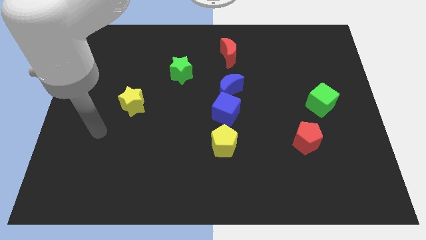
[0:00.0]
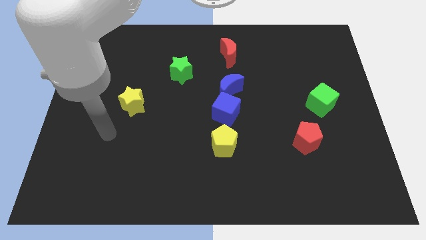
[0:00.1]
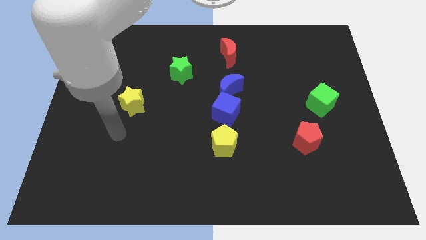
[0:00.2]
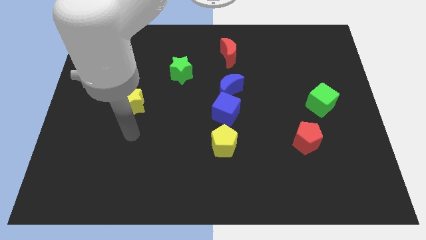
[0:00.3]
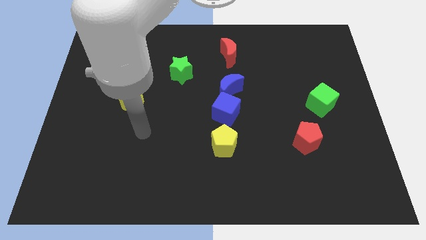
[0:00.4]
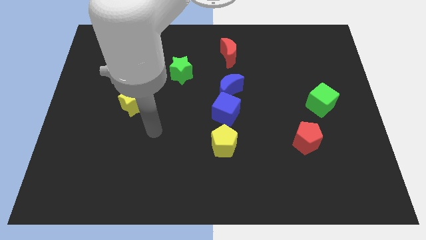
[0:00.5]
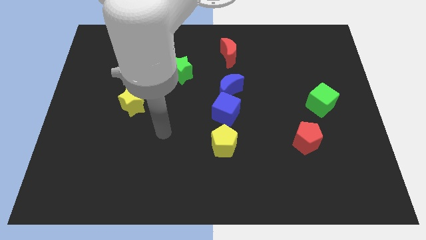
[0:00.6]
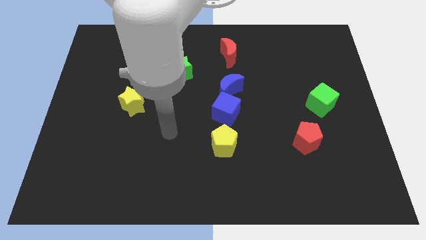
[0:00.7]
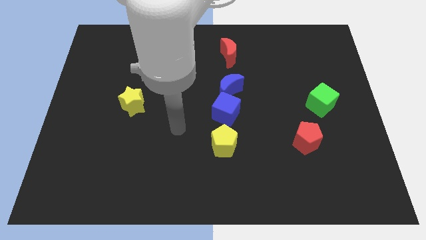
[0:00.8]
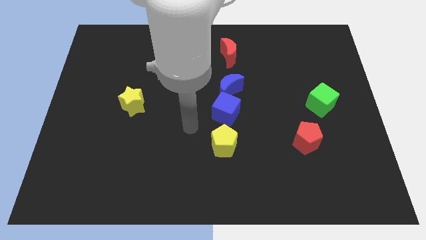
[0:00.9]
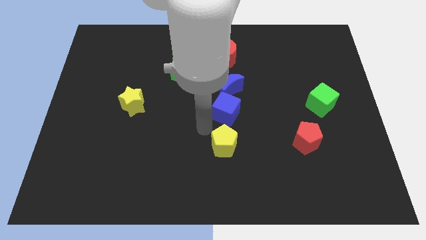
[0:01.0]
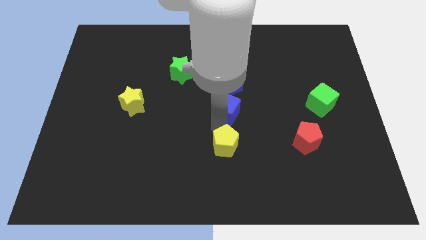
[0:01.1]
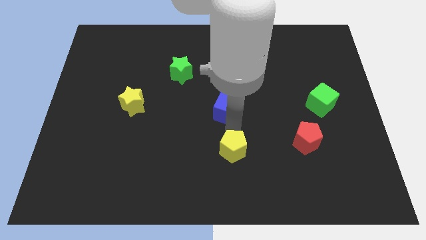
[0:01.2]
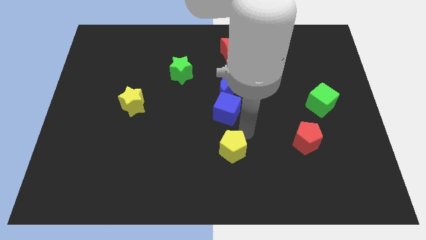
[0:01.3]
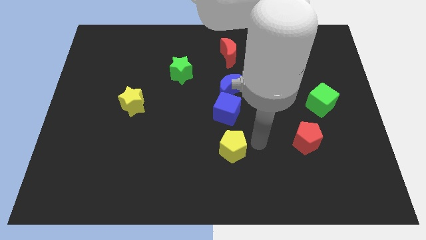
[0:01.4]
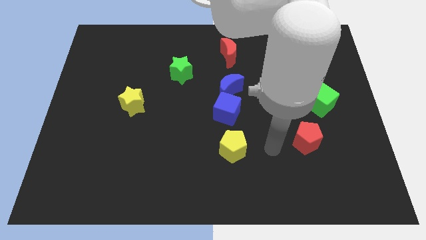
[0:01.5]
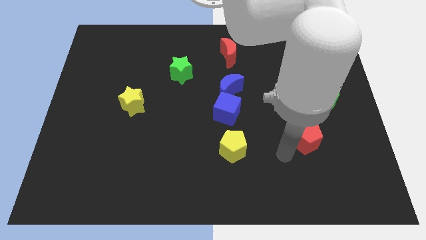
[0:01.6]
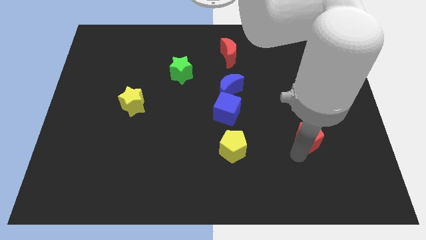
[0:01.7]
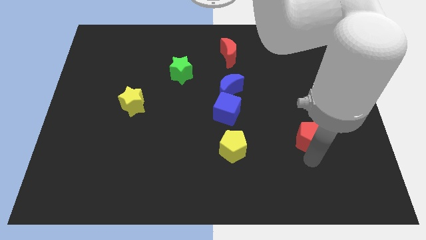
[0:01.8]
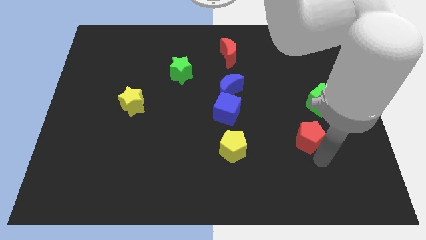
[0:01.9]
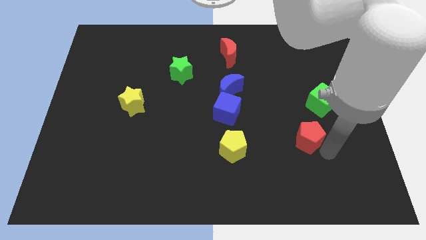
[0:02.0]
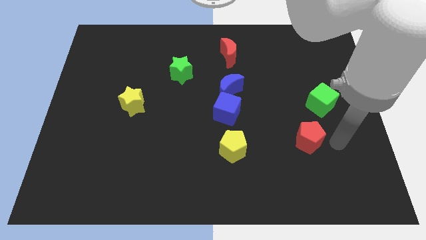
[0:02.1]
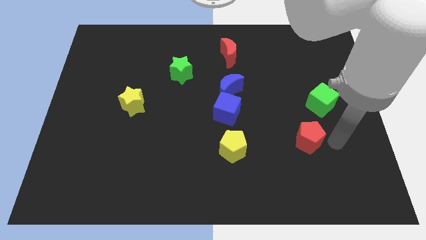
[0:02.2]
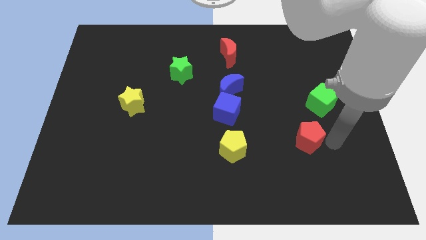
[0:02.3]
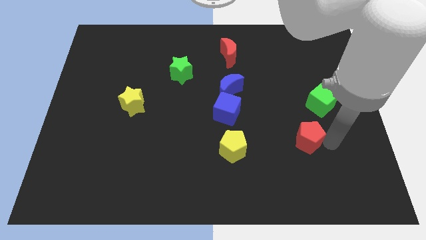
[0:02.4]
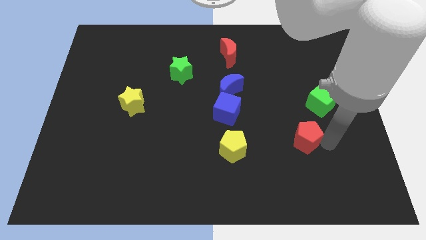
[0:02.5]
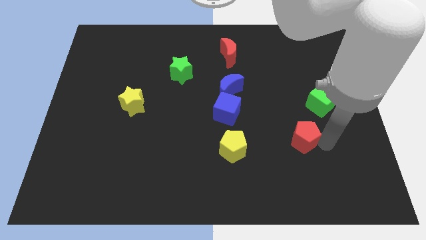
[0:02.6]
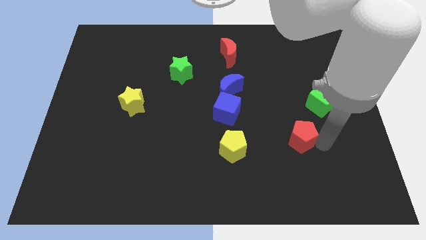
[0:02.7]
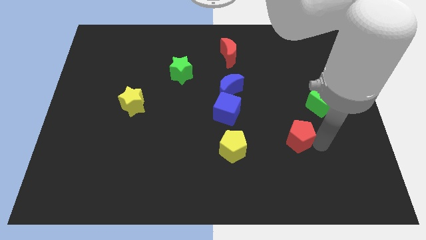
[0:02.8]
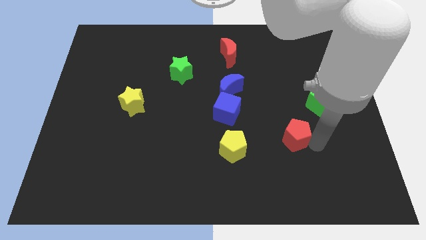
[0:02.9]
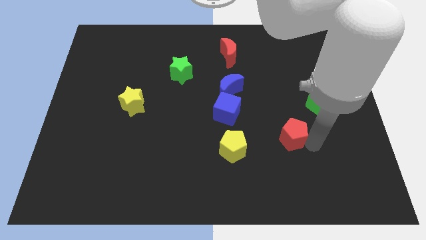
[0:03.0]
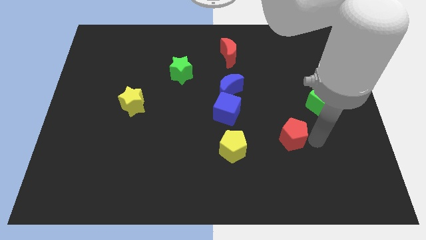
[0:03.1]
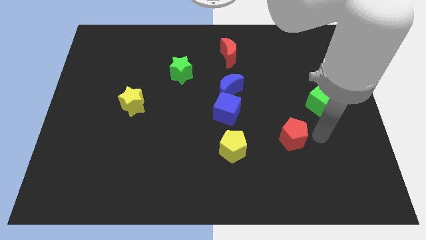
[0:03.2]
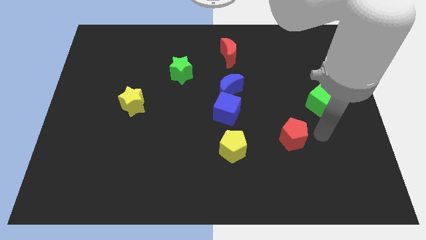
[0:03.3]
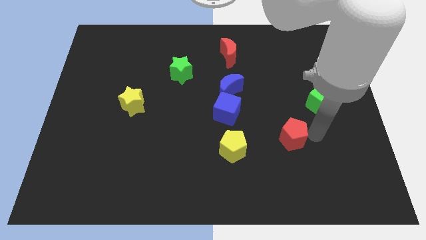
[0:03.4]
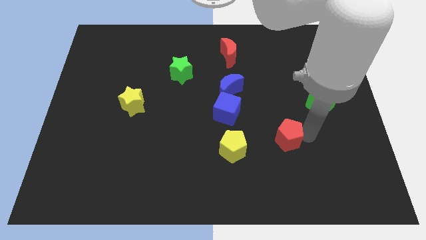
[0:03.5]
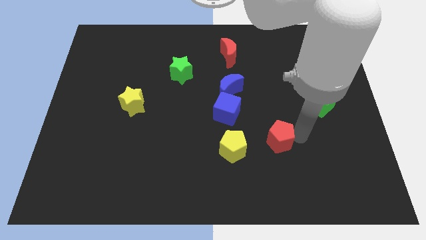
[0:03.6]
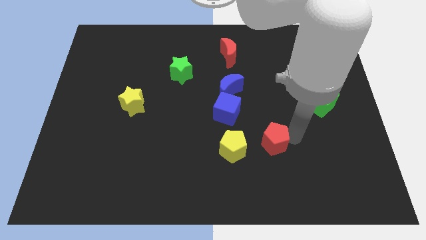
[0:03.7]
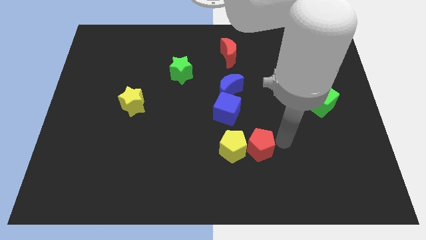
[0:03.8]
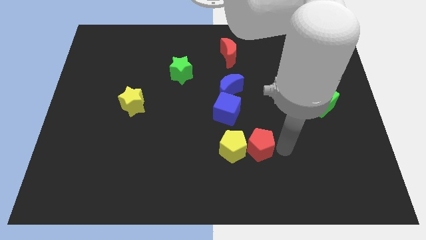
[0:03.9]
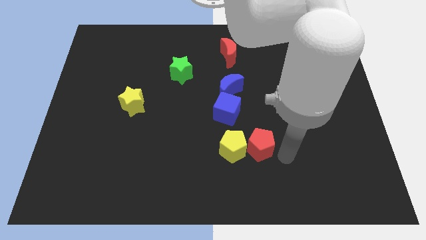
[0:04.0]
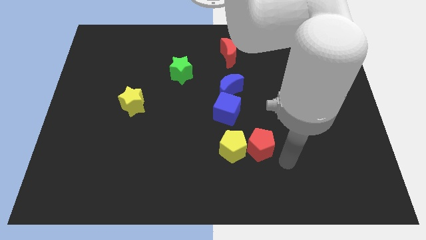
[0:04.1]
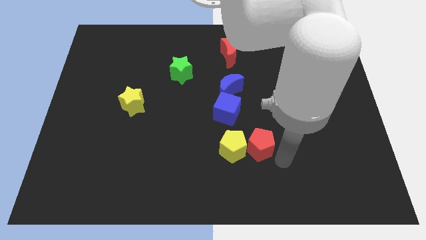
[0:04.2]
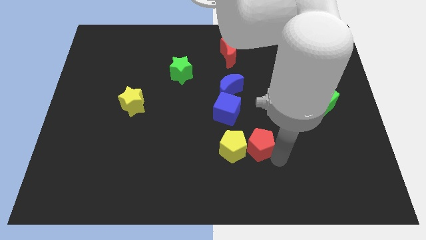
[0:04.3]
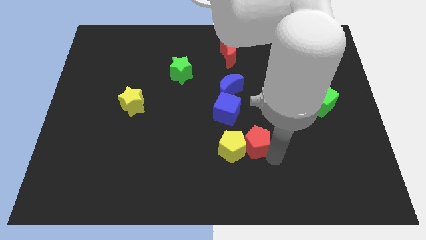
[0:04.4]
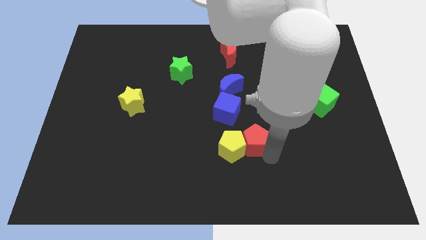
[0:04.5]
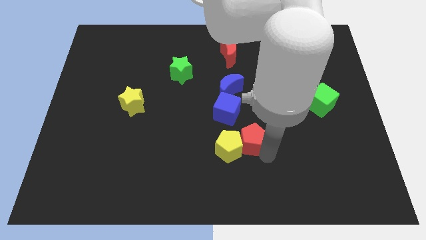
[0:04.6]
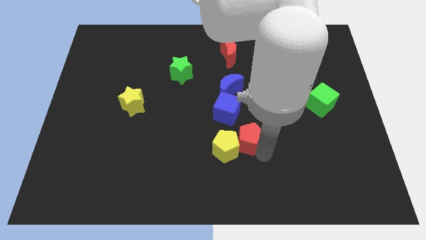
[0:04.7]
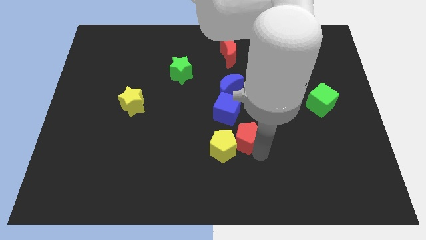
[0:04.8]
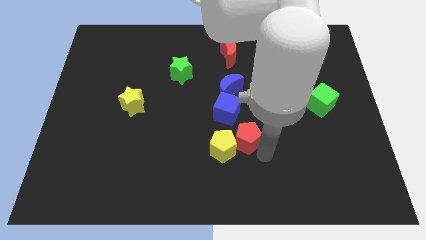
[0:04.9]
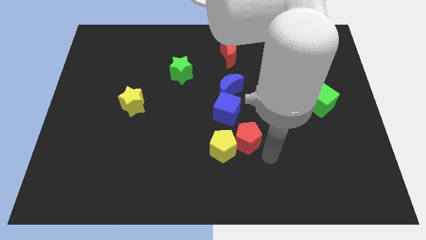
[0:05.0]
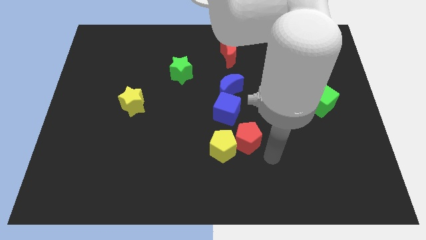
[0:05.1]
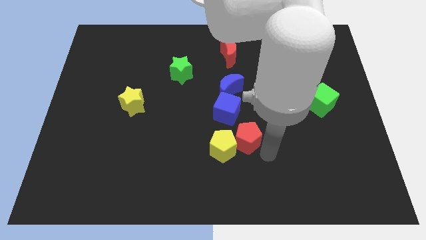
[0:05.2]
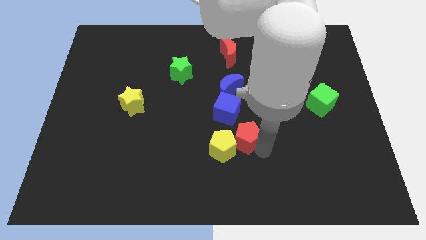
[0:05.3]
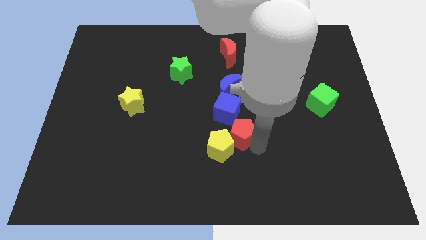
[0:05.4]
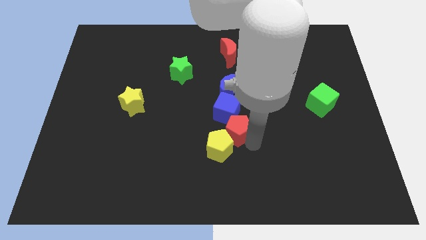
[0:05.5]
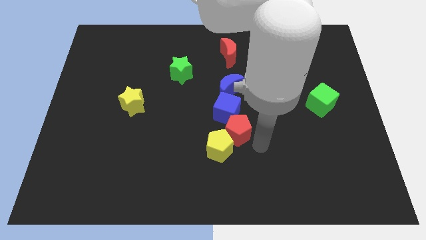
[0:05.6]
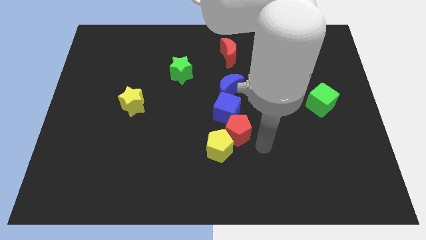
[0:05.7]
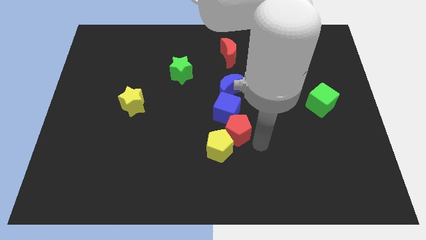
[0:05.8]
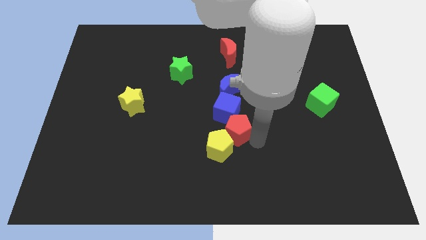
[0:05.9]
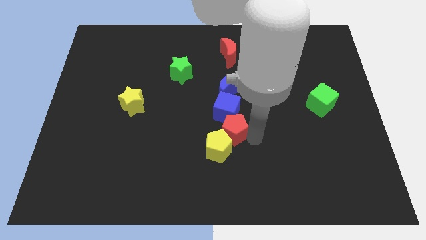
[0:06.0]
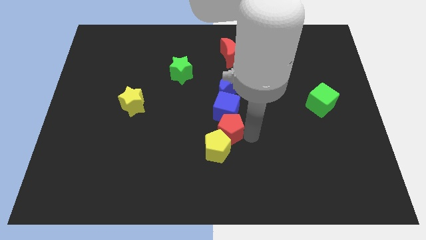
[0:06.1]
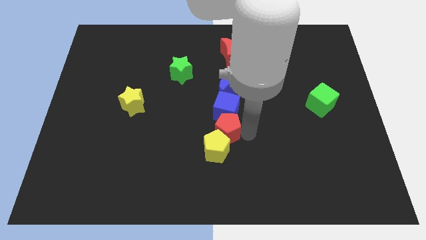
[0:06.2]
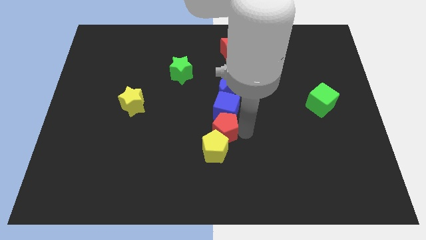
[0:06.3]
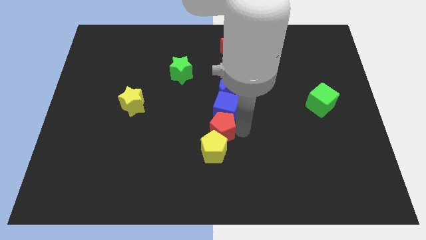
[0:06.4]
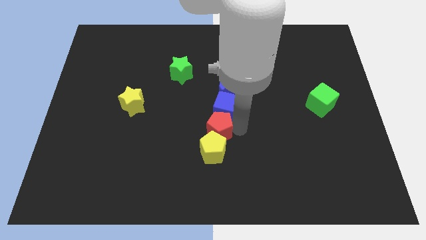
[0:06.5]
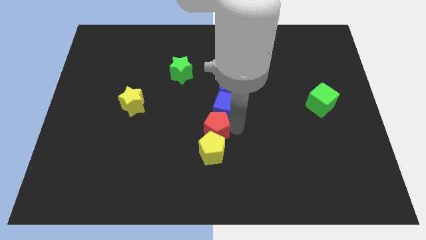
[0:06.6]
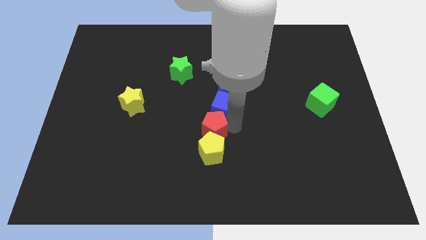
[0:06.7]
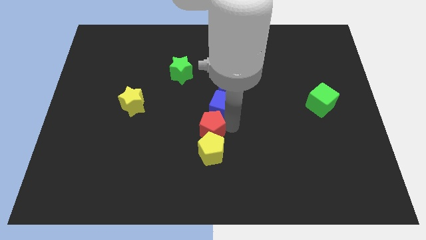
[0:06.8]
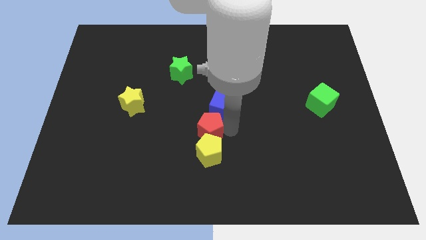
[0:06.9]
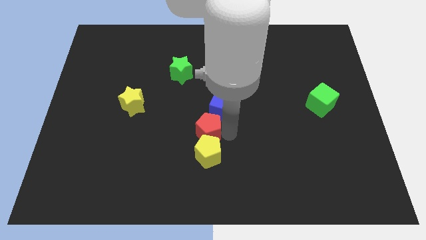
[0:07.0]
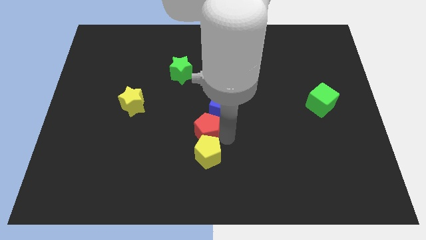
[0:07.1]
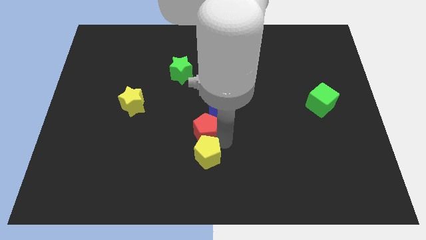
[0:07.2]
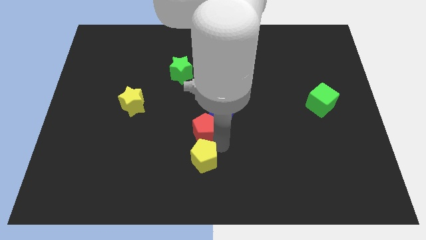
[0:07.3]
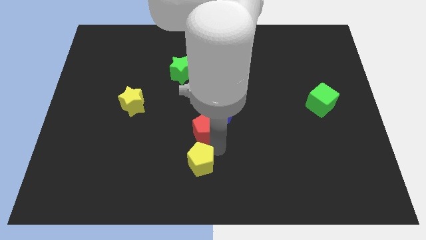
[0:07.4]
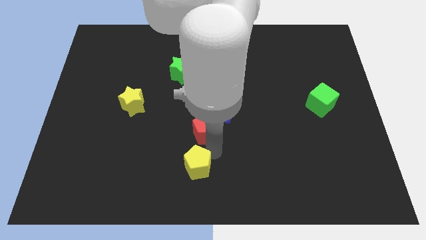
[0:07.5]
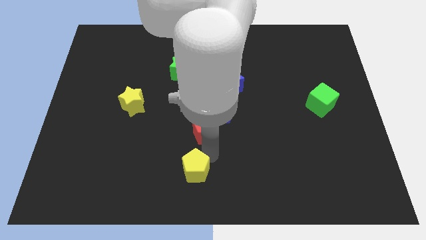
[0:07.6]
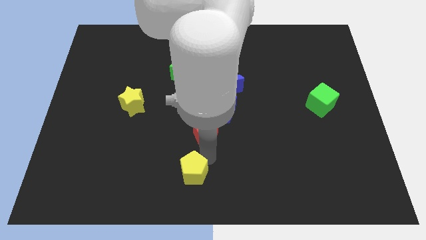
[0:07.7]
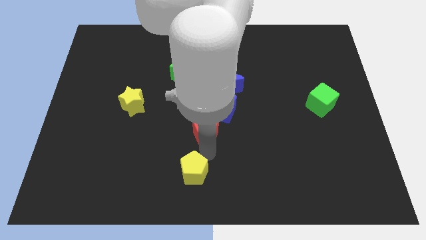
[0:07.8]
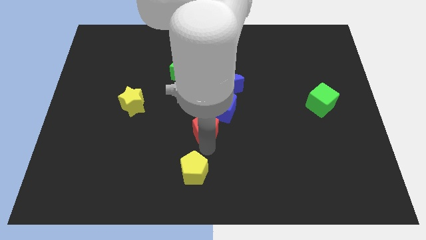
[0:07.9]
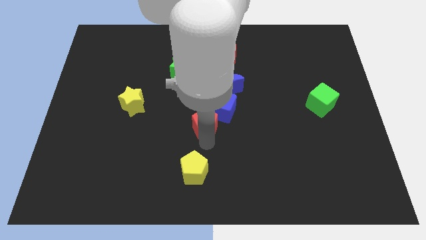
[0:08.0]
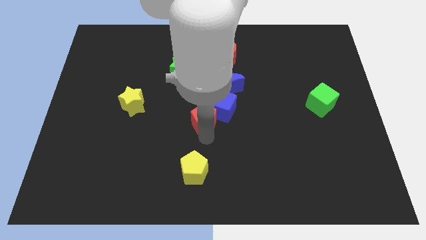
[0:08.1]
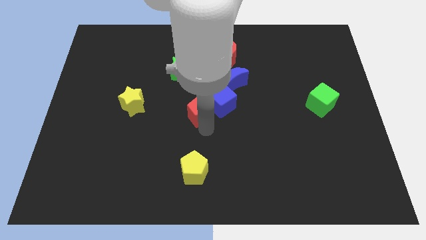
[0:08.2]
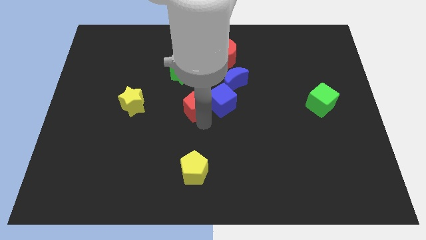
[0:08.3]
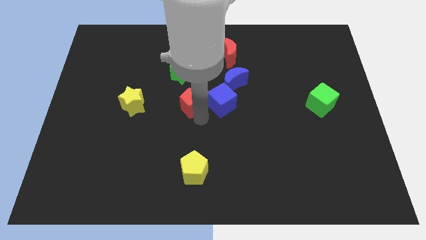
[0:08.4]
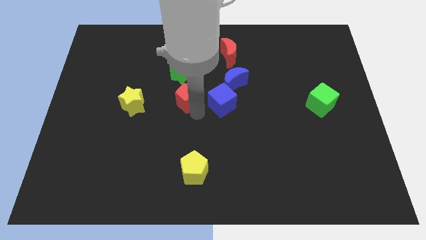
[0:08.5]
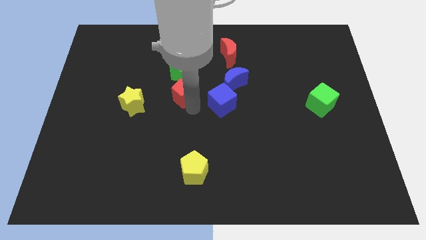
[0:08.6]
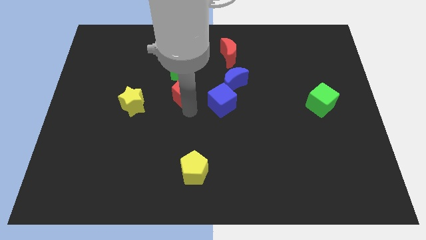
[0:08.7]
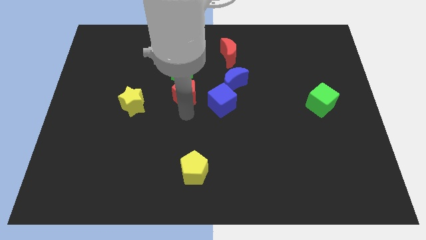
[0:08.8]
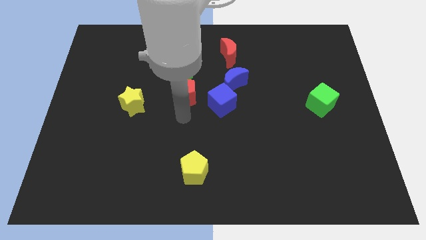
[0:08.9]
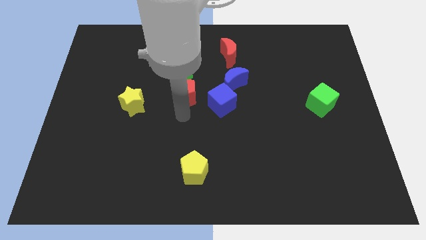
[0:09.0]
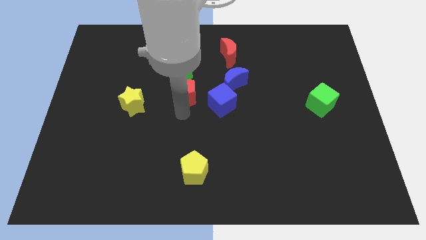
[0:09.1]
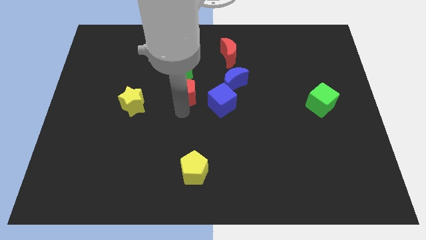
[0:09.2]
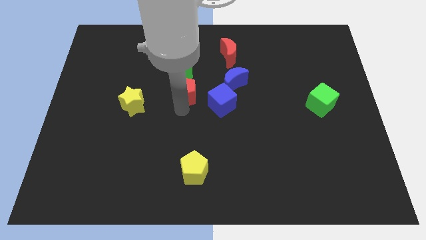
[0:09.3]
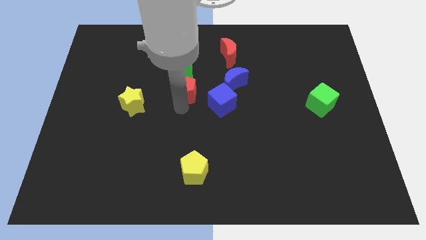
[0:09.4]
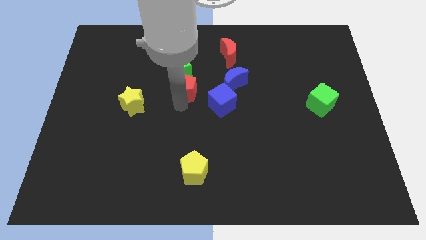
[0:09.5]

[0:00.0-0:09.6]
put the red pentagon close to the green star
